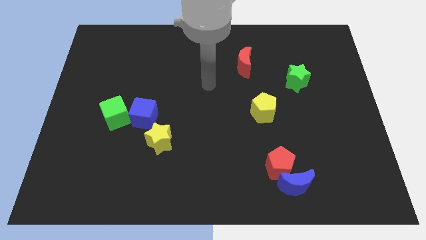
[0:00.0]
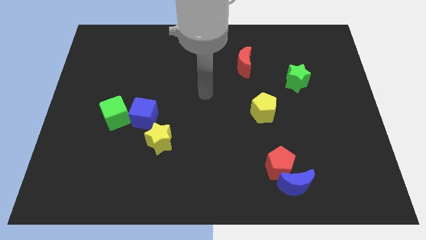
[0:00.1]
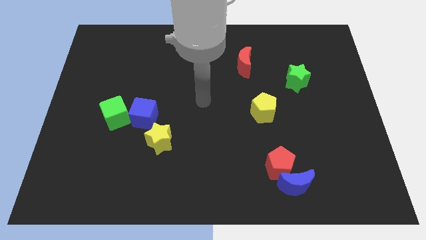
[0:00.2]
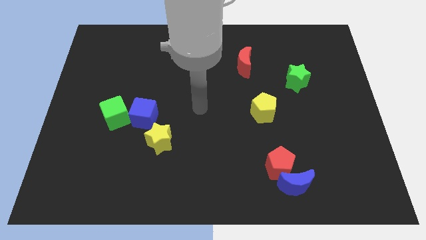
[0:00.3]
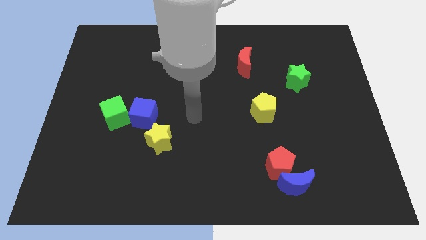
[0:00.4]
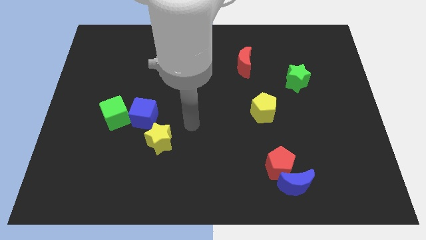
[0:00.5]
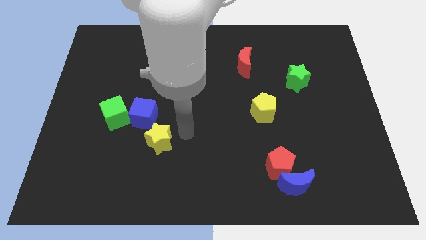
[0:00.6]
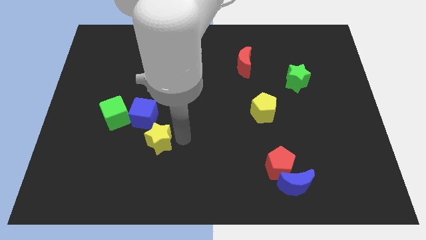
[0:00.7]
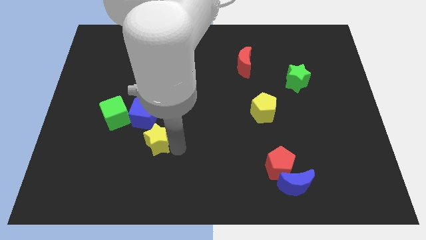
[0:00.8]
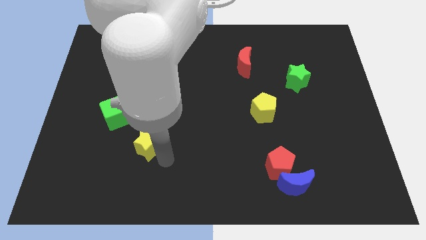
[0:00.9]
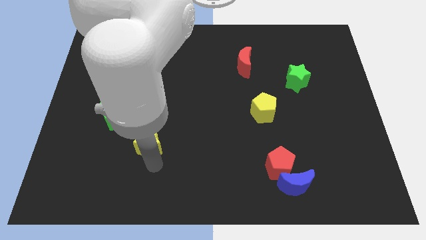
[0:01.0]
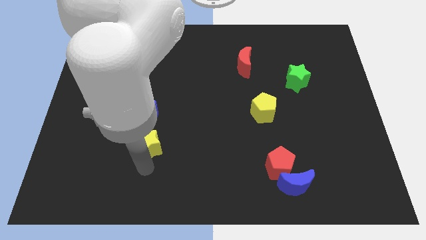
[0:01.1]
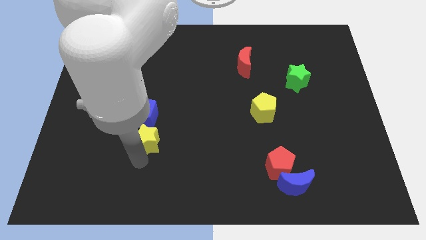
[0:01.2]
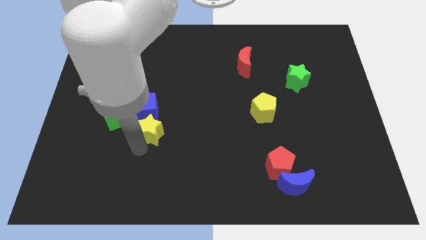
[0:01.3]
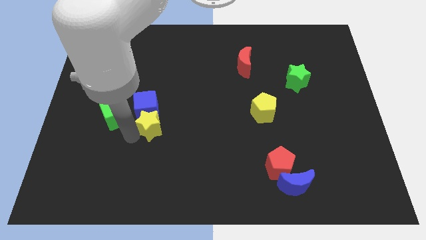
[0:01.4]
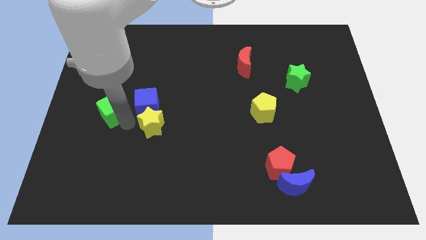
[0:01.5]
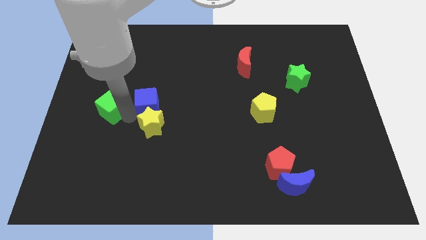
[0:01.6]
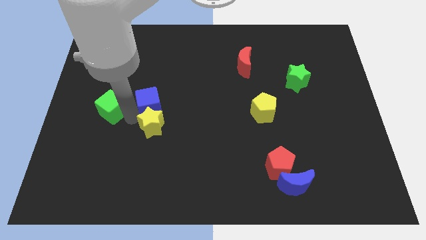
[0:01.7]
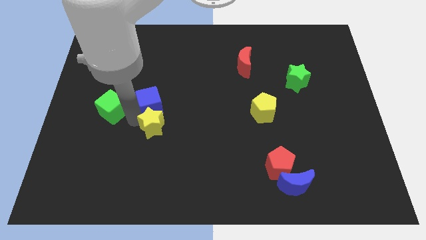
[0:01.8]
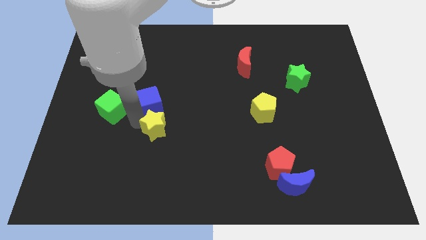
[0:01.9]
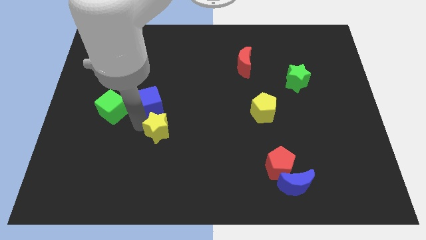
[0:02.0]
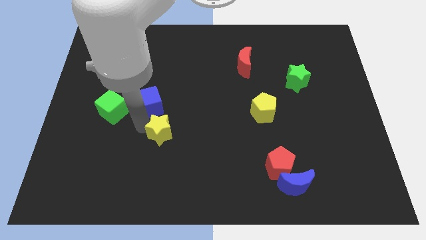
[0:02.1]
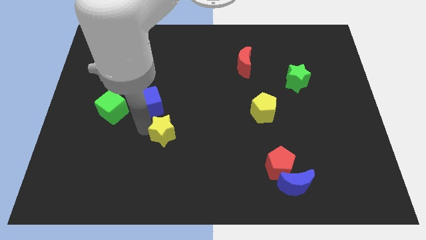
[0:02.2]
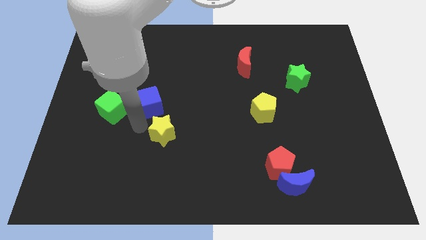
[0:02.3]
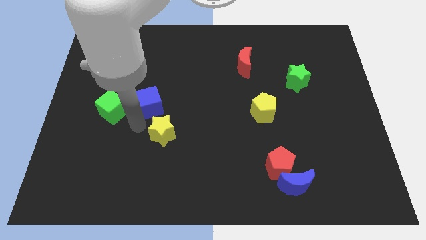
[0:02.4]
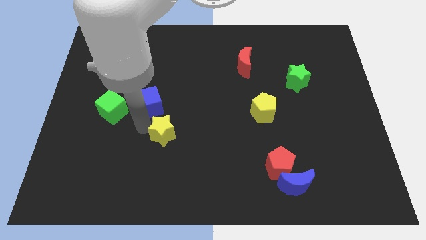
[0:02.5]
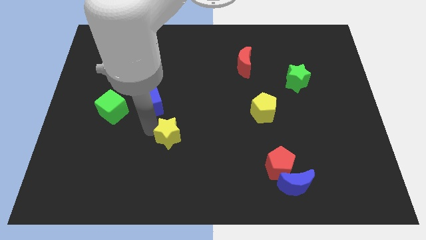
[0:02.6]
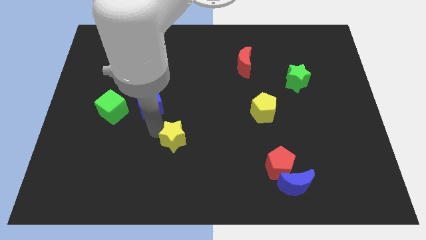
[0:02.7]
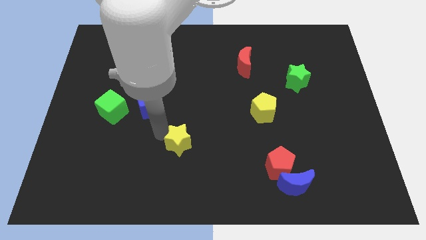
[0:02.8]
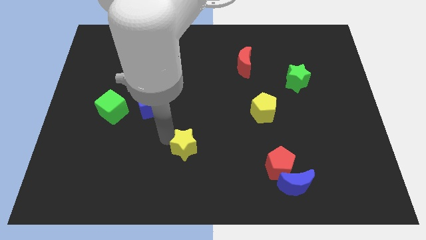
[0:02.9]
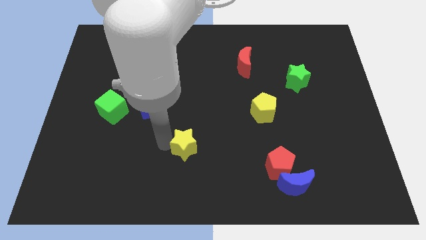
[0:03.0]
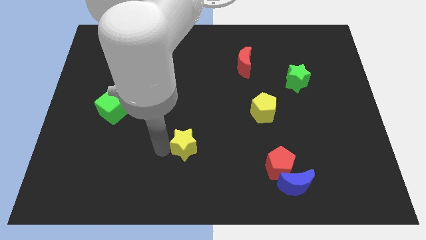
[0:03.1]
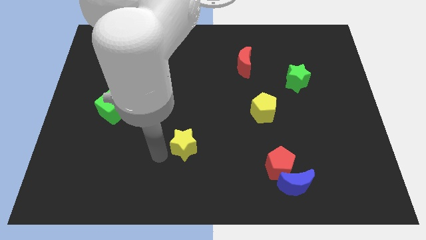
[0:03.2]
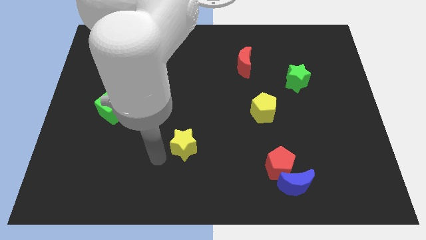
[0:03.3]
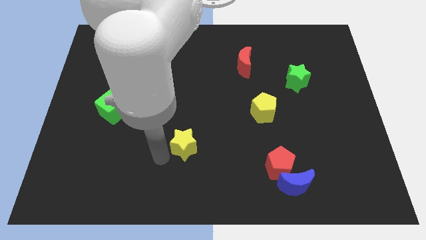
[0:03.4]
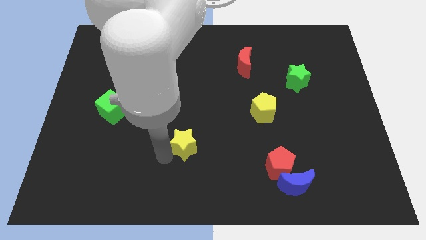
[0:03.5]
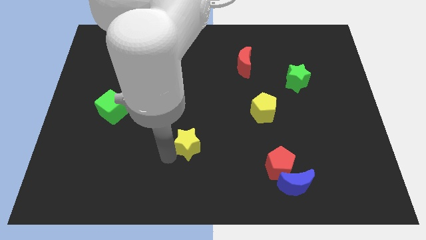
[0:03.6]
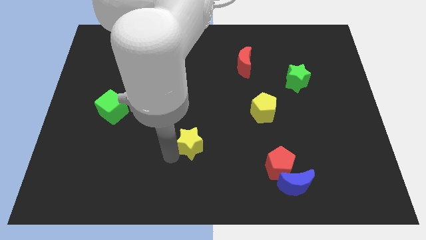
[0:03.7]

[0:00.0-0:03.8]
push the yellow star right a little

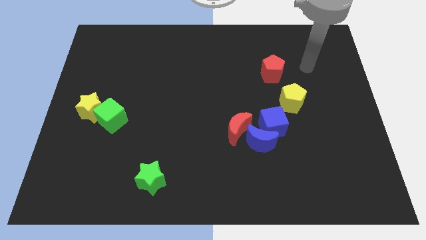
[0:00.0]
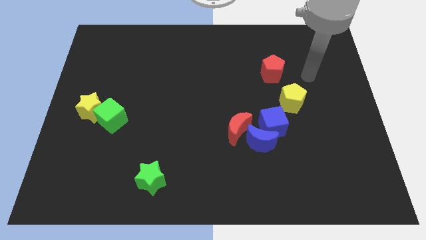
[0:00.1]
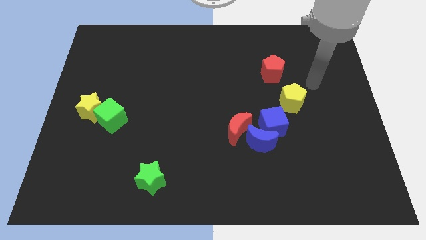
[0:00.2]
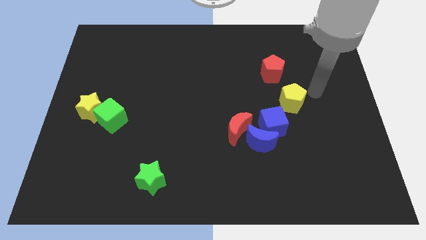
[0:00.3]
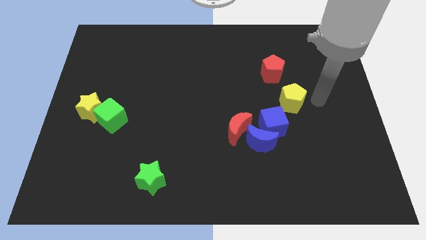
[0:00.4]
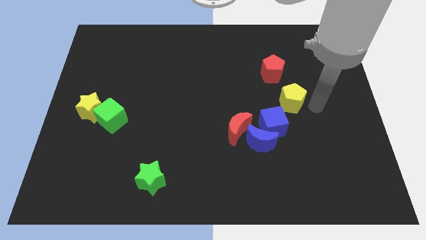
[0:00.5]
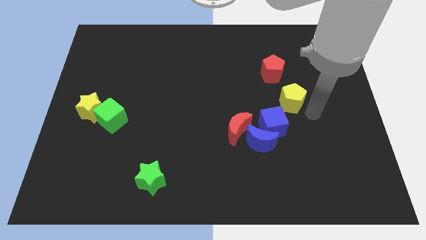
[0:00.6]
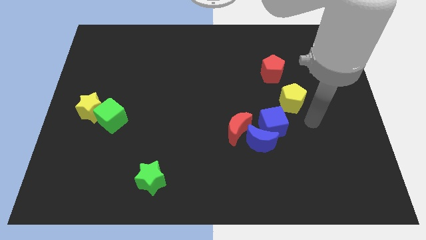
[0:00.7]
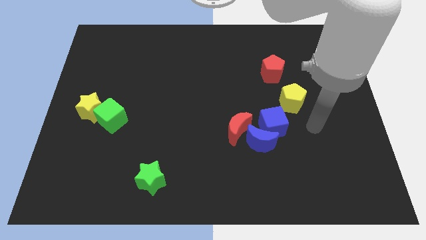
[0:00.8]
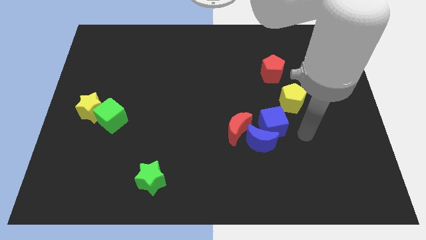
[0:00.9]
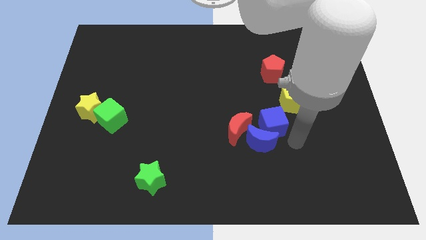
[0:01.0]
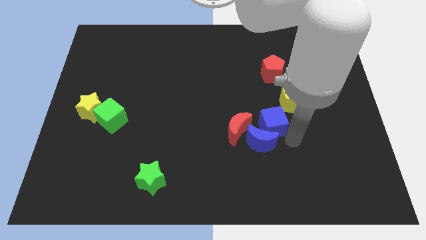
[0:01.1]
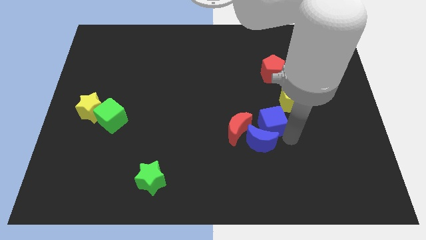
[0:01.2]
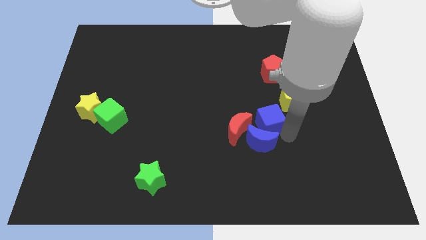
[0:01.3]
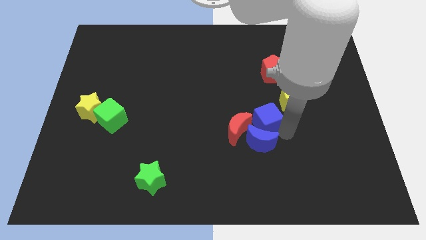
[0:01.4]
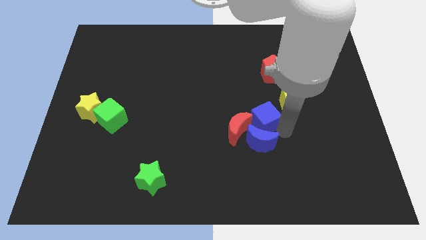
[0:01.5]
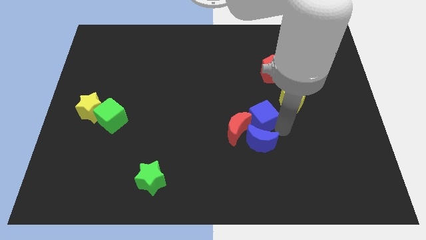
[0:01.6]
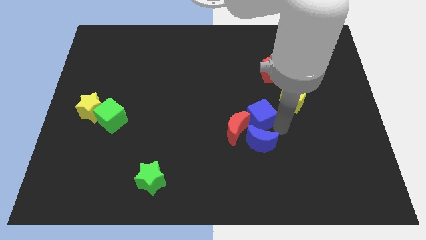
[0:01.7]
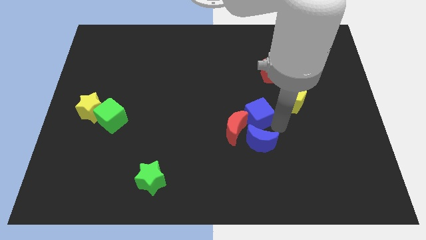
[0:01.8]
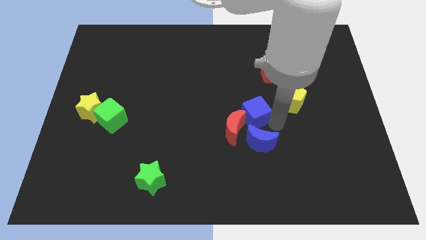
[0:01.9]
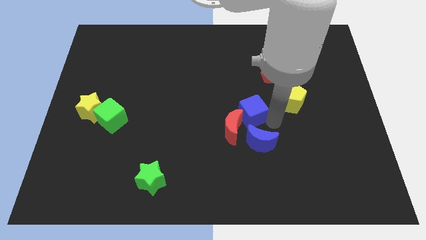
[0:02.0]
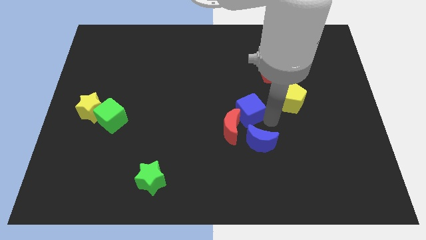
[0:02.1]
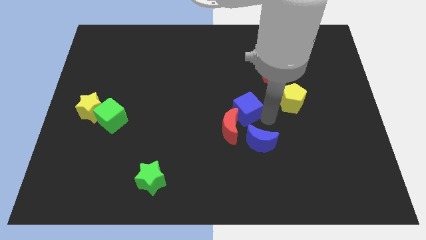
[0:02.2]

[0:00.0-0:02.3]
slightly push the blue cube upwards and then left

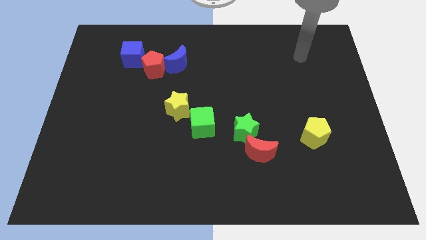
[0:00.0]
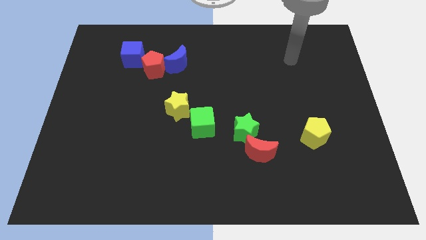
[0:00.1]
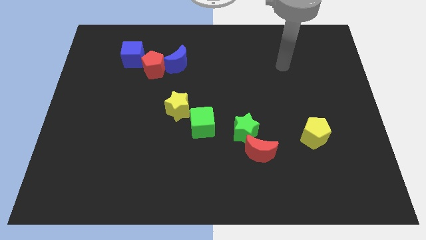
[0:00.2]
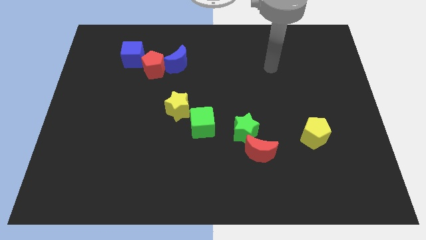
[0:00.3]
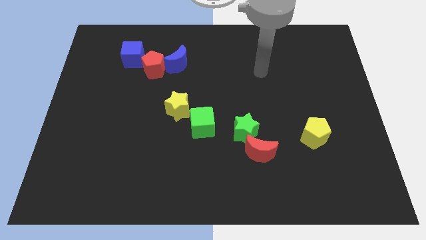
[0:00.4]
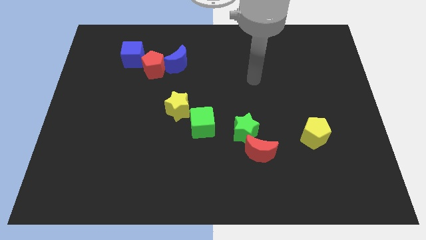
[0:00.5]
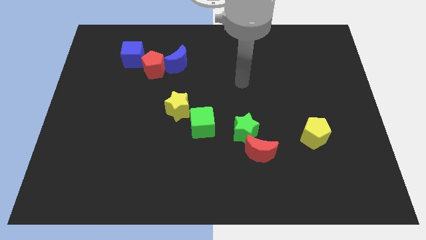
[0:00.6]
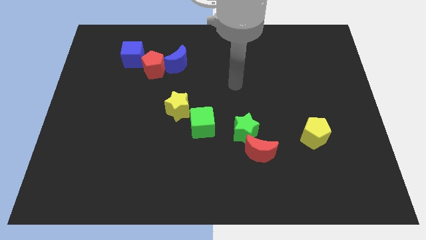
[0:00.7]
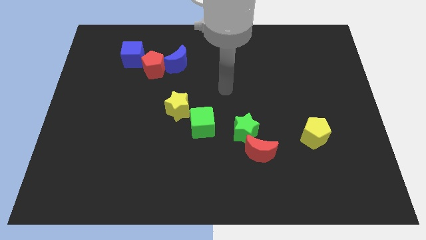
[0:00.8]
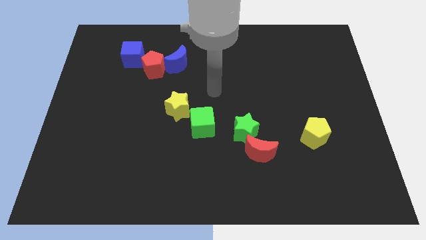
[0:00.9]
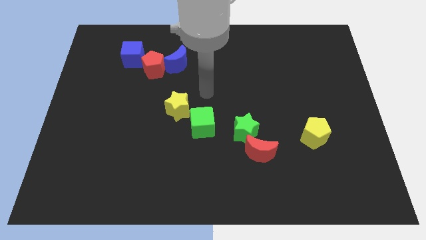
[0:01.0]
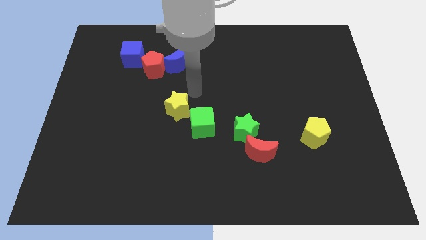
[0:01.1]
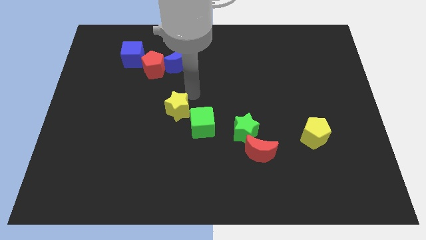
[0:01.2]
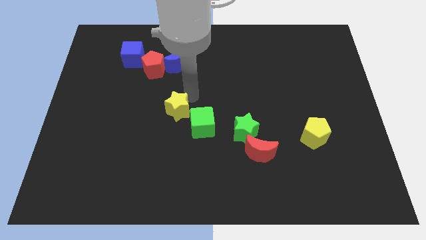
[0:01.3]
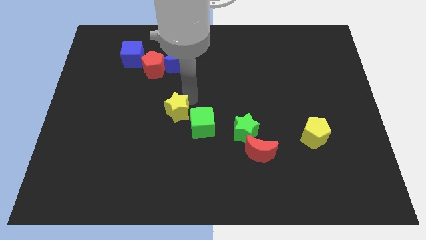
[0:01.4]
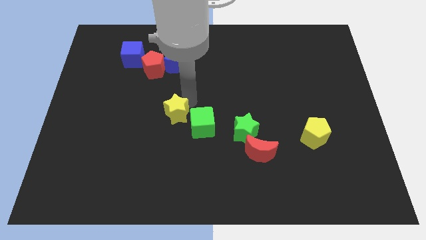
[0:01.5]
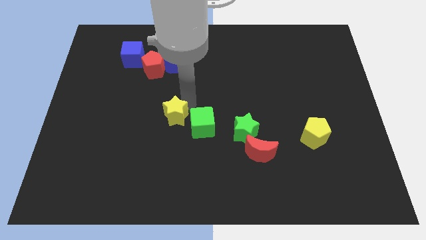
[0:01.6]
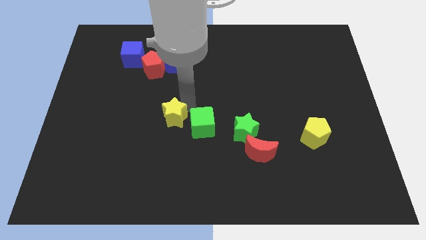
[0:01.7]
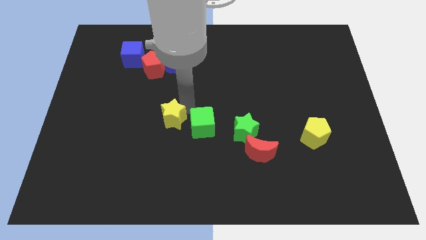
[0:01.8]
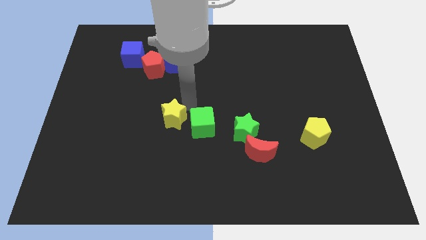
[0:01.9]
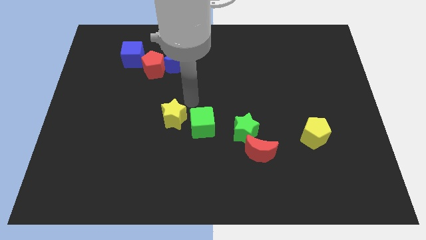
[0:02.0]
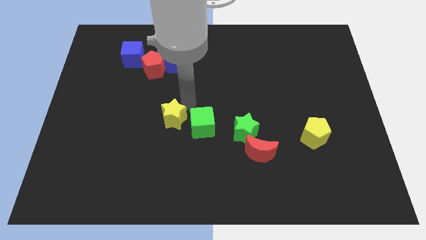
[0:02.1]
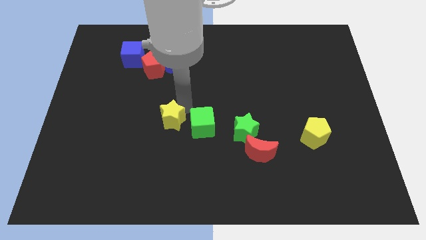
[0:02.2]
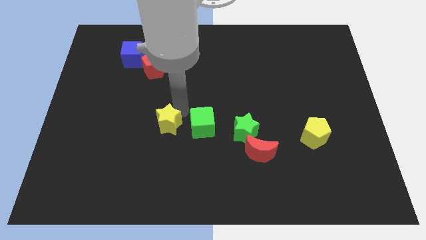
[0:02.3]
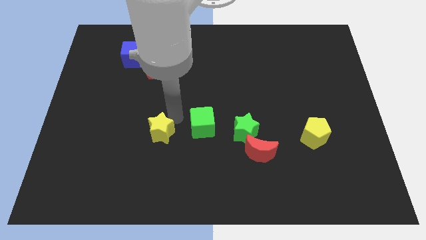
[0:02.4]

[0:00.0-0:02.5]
slightly slide the yellow star downwards and to the left
